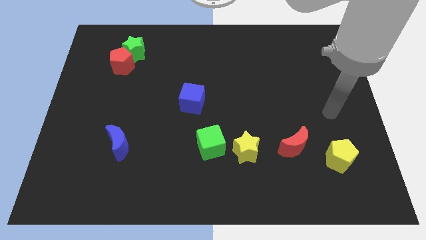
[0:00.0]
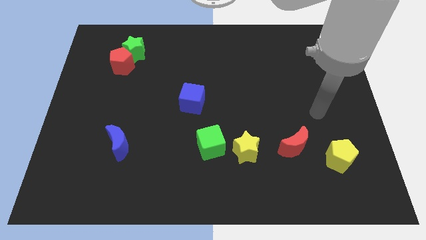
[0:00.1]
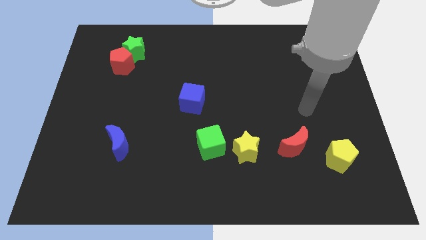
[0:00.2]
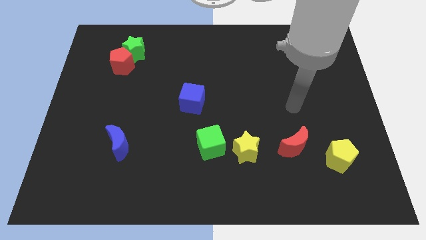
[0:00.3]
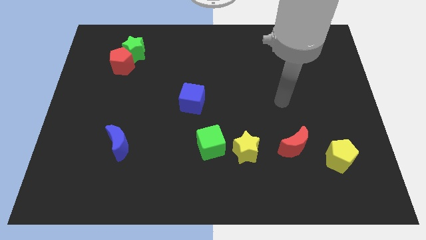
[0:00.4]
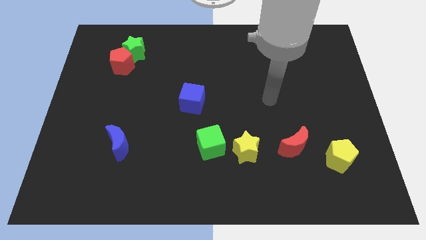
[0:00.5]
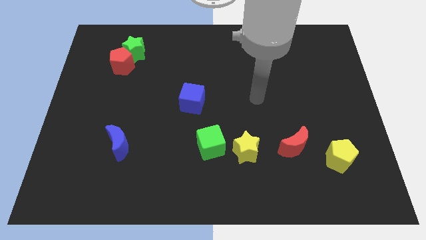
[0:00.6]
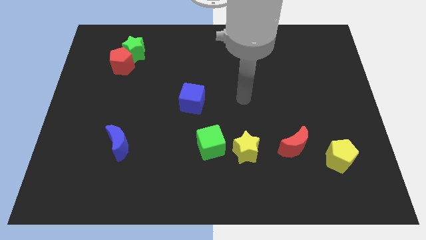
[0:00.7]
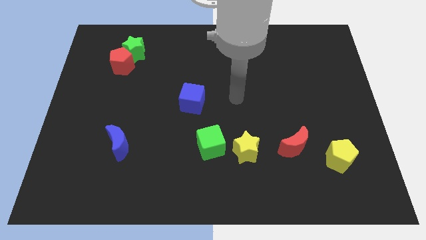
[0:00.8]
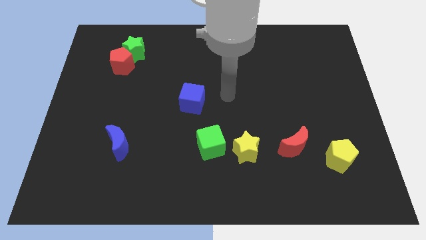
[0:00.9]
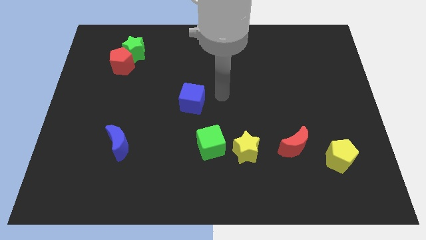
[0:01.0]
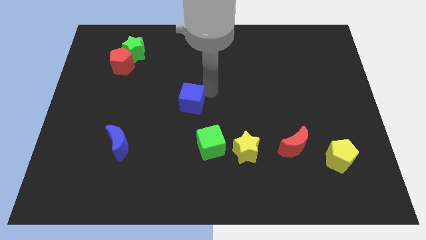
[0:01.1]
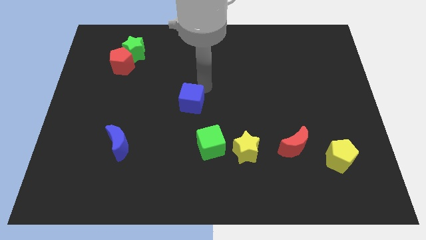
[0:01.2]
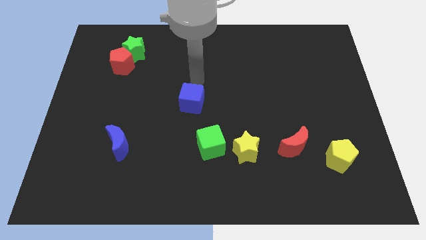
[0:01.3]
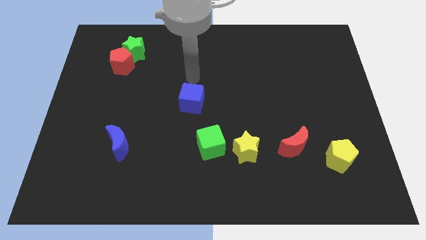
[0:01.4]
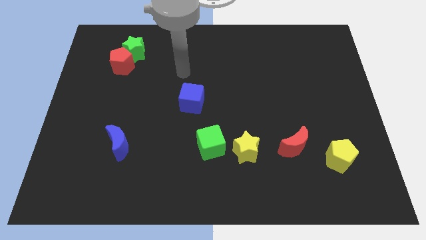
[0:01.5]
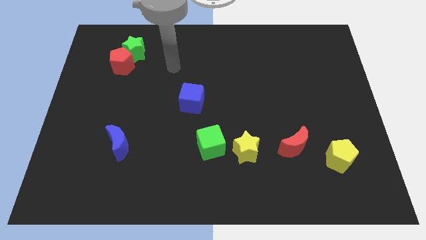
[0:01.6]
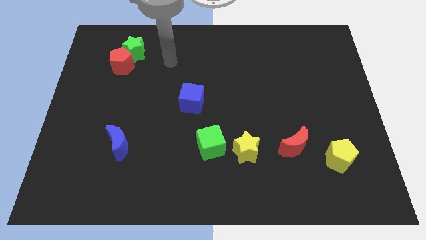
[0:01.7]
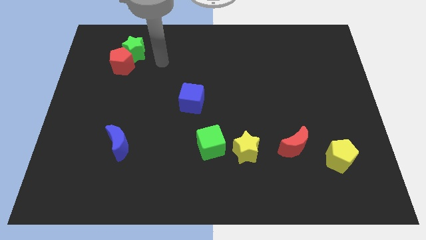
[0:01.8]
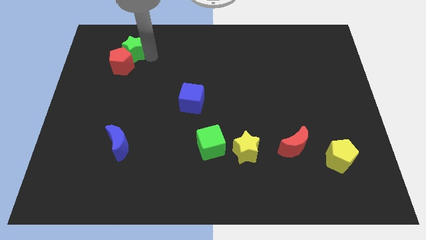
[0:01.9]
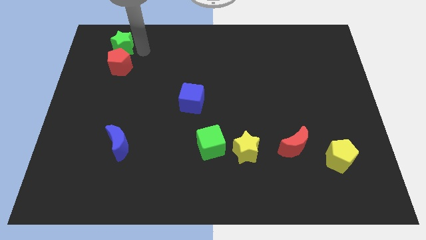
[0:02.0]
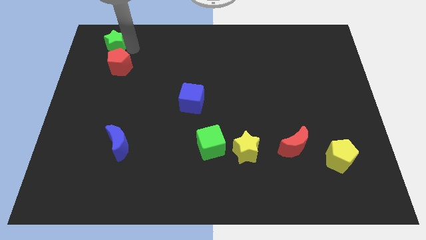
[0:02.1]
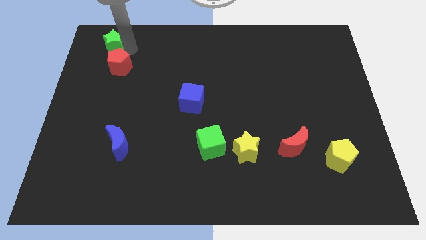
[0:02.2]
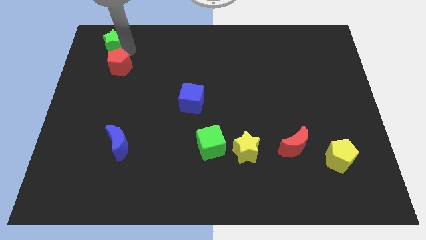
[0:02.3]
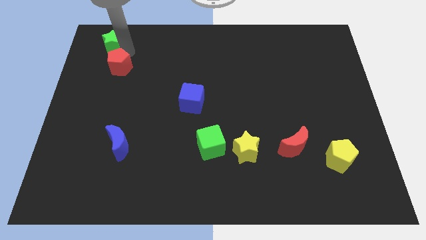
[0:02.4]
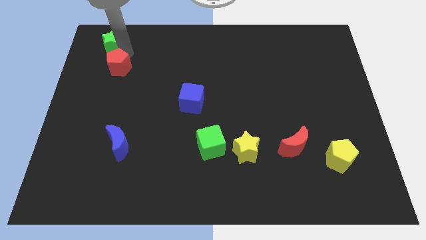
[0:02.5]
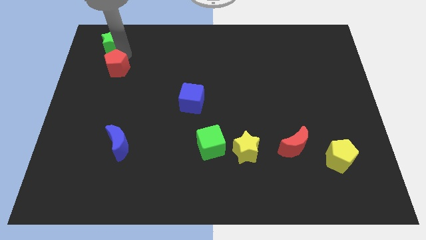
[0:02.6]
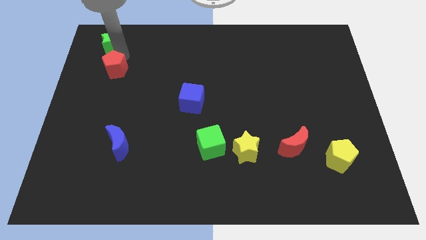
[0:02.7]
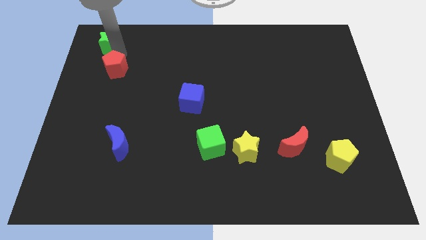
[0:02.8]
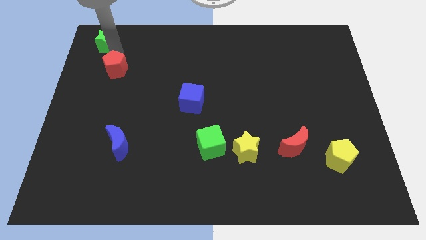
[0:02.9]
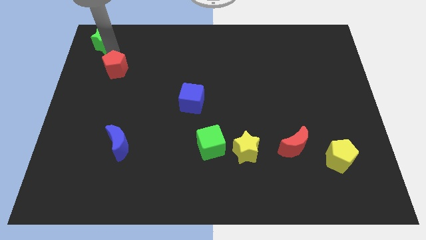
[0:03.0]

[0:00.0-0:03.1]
separate the red pentagon from the green star

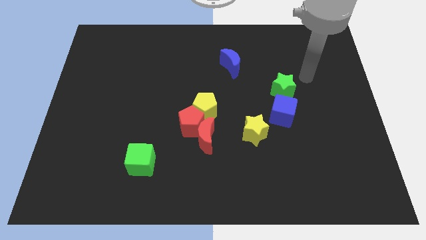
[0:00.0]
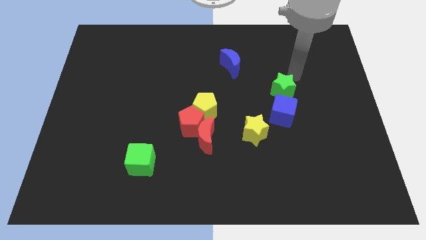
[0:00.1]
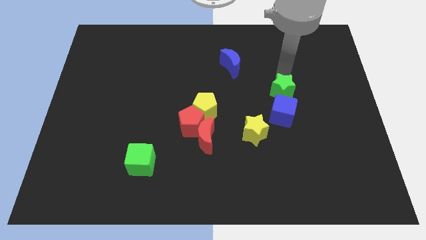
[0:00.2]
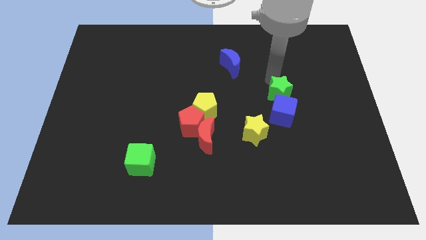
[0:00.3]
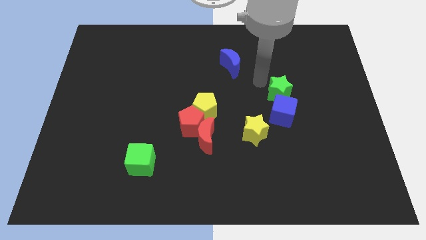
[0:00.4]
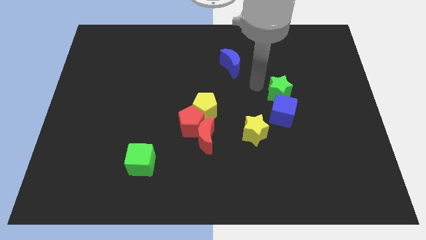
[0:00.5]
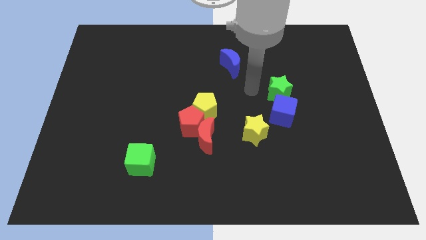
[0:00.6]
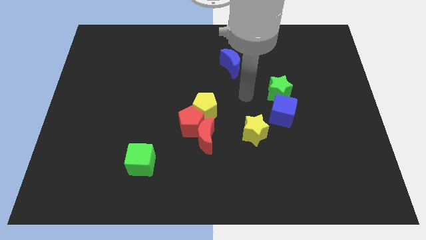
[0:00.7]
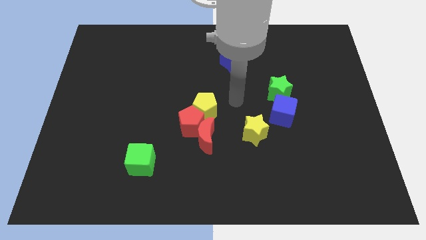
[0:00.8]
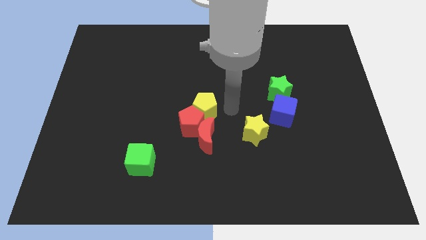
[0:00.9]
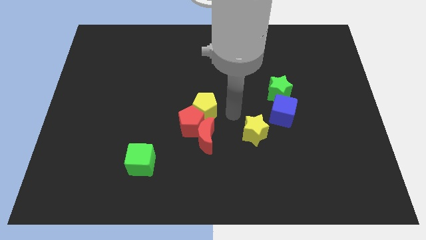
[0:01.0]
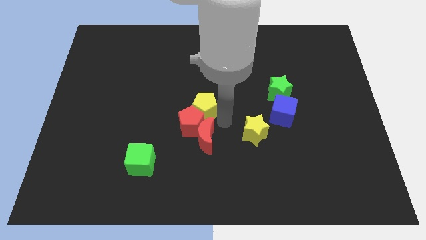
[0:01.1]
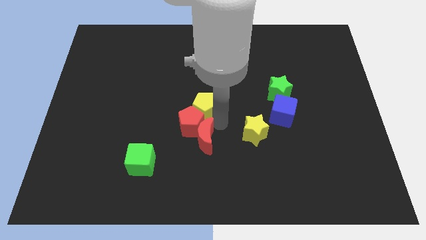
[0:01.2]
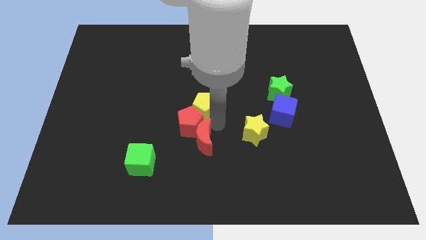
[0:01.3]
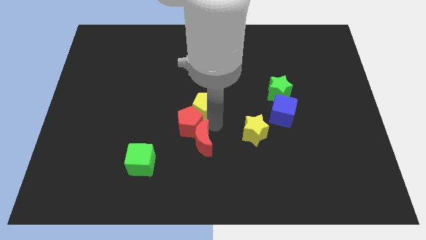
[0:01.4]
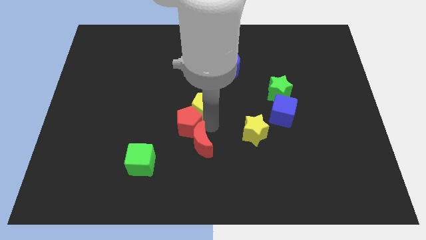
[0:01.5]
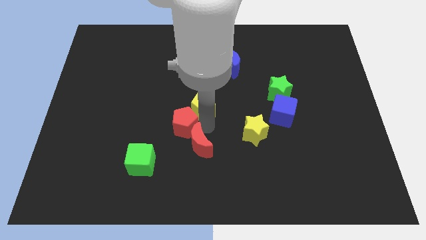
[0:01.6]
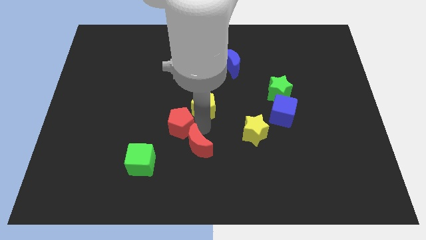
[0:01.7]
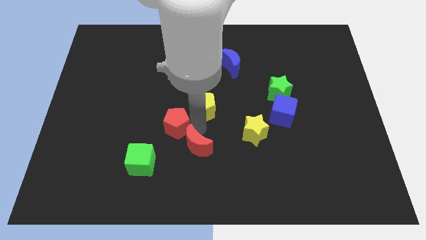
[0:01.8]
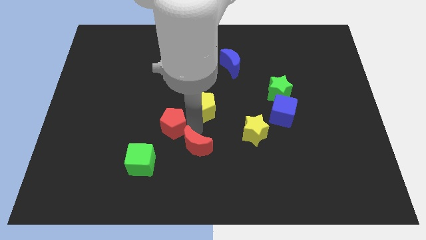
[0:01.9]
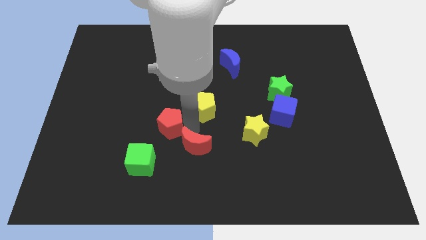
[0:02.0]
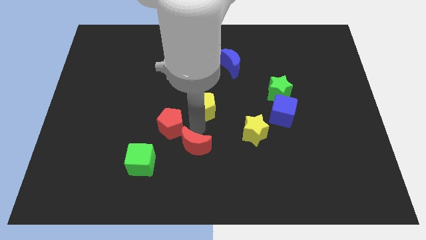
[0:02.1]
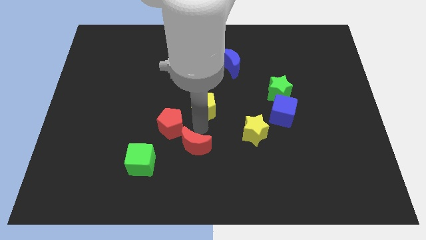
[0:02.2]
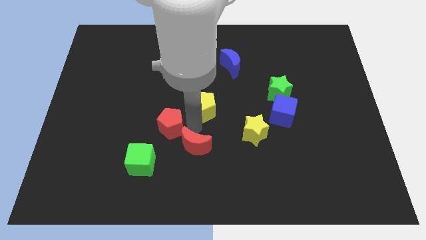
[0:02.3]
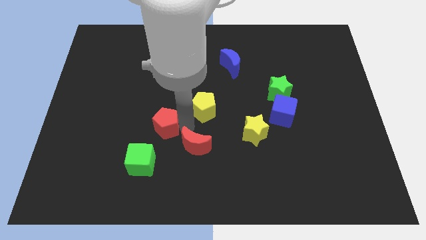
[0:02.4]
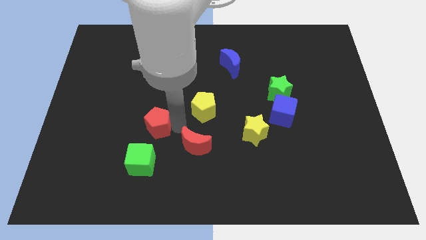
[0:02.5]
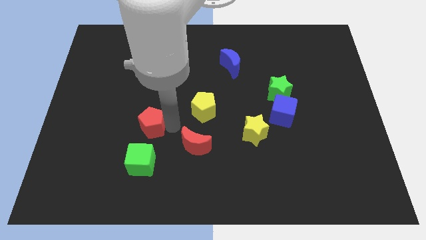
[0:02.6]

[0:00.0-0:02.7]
pull the red pentagon apart from the red moon and yellow pentagon

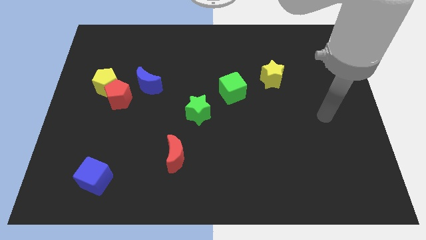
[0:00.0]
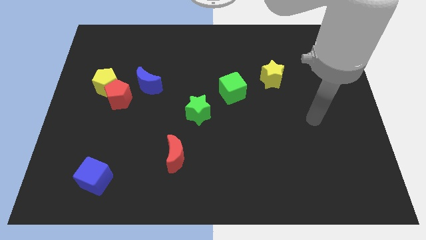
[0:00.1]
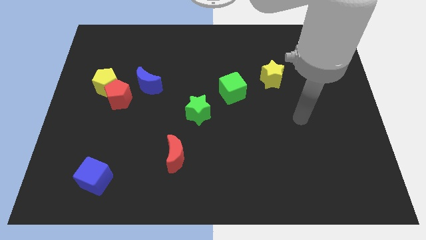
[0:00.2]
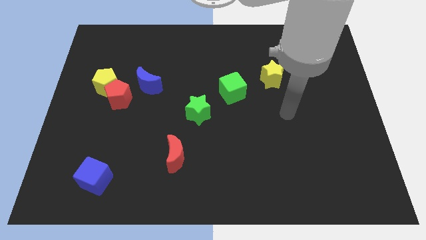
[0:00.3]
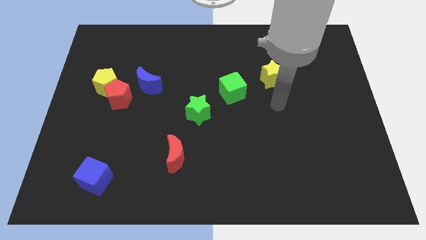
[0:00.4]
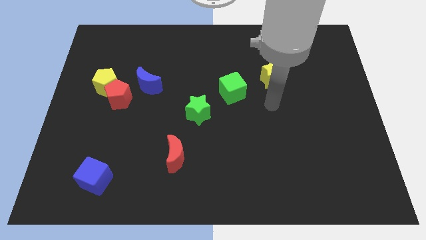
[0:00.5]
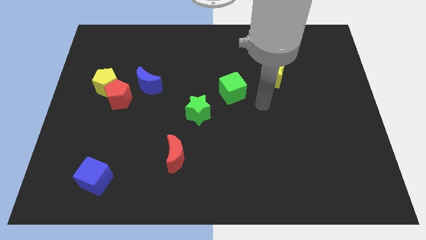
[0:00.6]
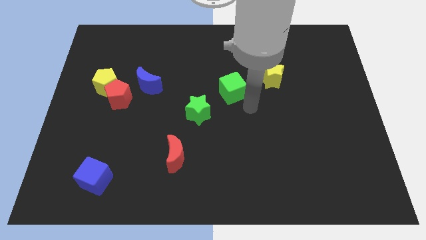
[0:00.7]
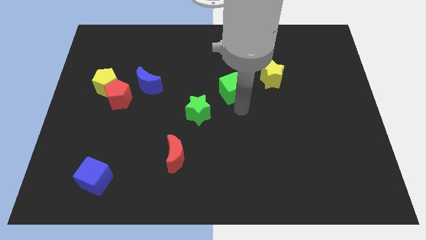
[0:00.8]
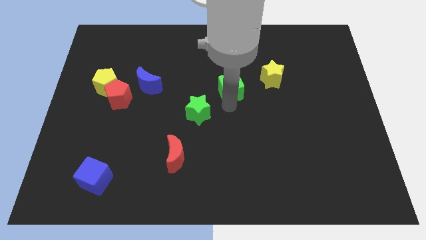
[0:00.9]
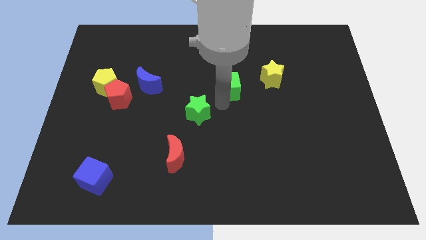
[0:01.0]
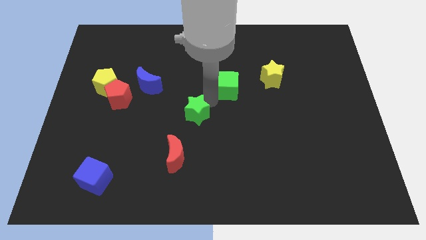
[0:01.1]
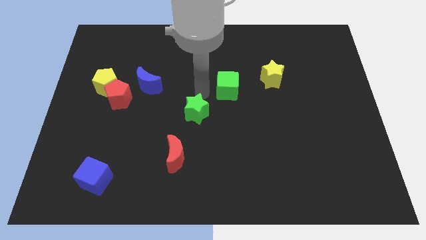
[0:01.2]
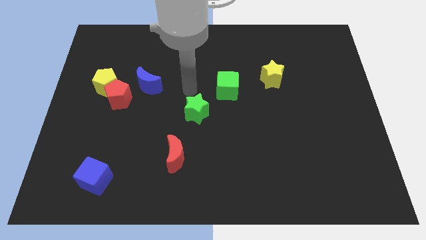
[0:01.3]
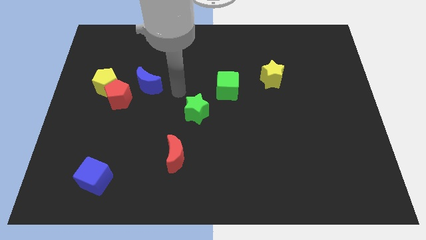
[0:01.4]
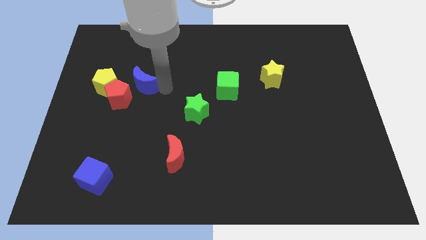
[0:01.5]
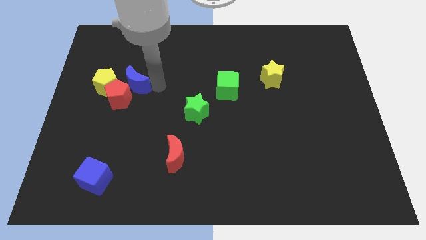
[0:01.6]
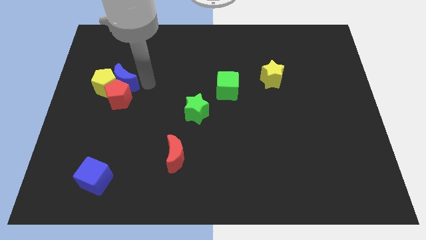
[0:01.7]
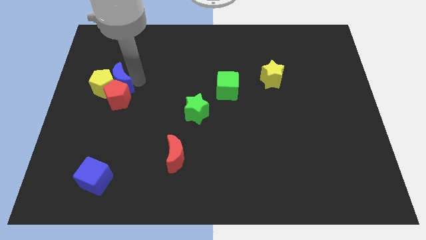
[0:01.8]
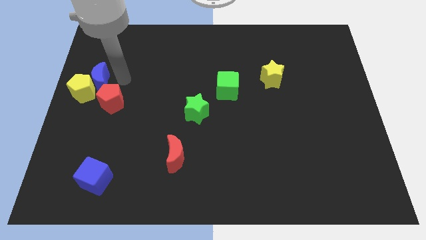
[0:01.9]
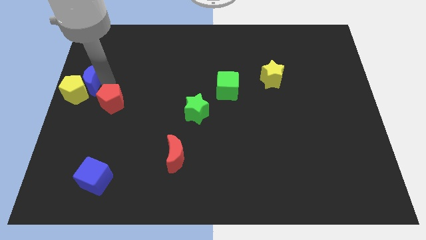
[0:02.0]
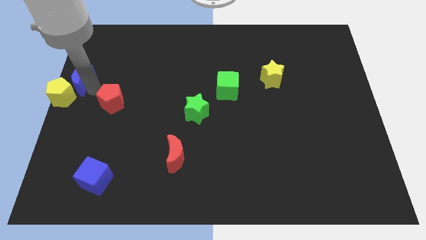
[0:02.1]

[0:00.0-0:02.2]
move the red pentagon away from the yellow pentagon and blue moon

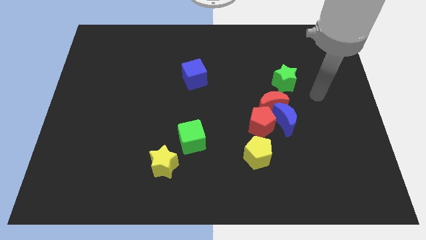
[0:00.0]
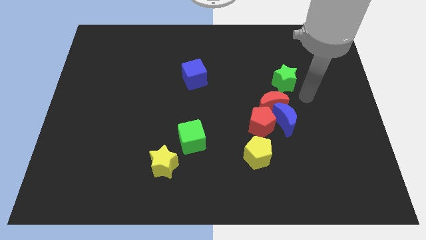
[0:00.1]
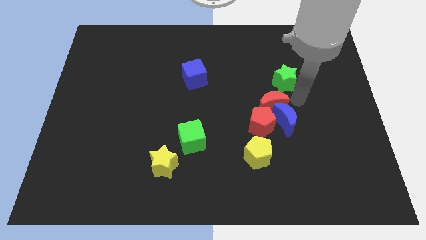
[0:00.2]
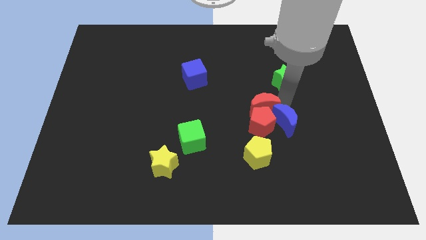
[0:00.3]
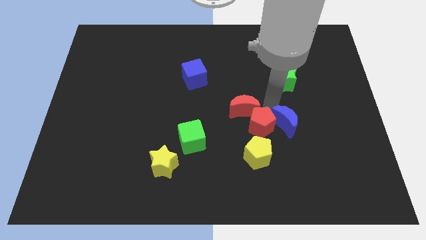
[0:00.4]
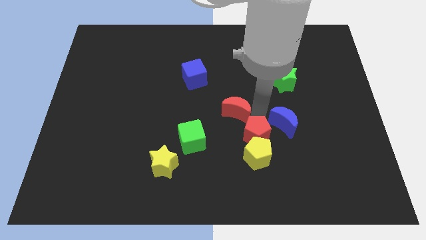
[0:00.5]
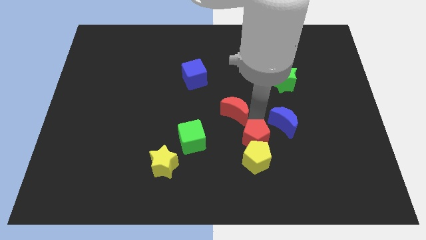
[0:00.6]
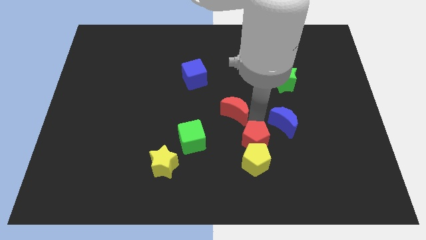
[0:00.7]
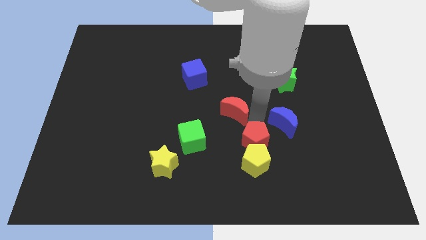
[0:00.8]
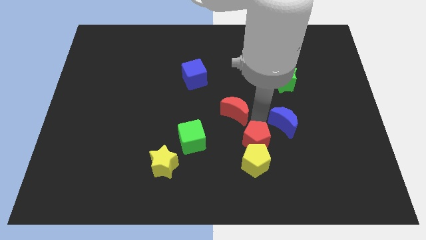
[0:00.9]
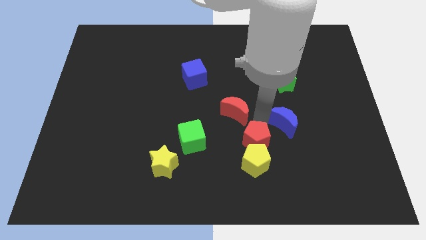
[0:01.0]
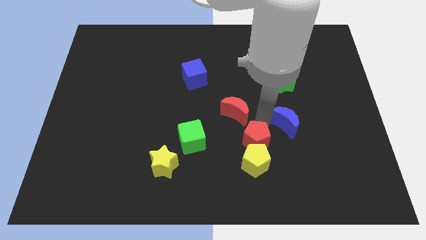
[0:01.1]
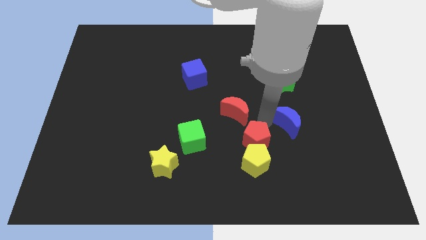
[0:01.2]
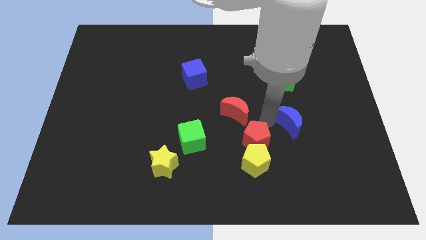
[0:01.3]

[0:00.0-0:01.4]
separate the blue moon from the red moon and red pentagon
